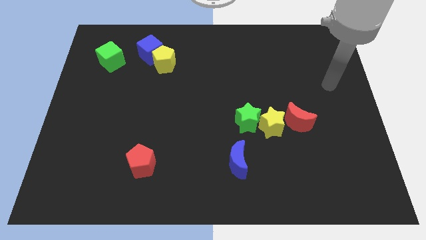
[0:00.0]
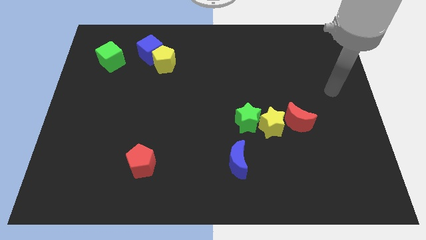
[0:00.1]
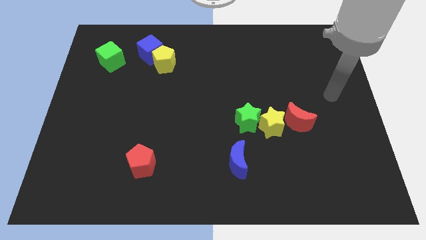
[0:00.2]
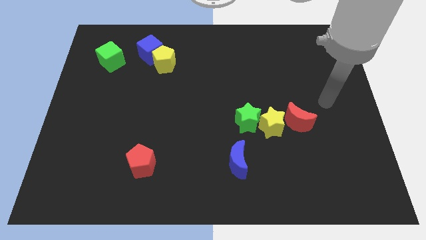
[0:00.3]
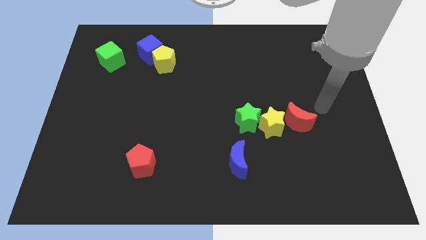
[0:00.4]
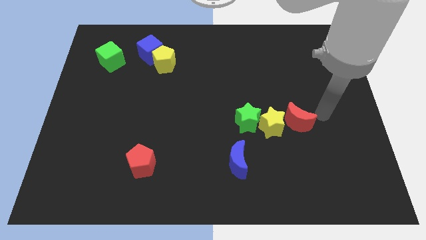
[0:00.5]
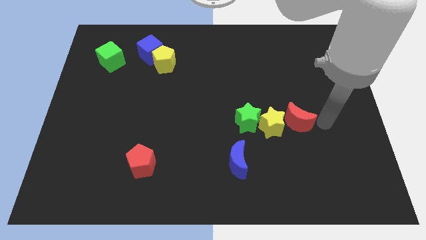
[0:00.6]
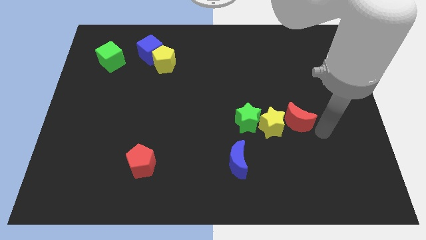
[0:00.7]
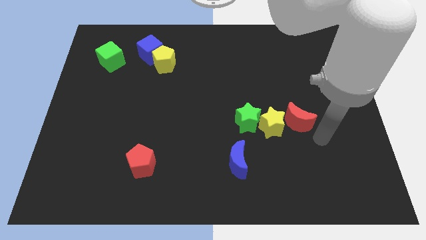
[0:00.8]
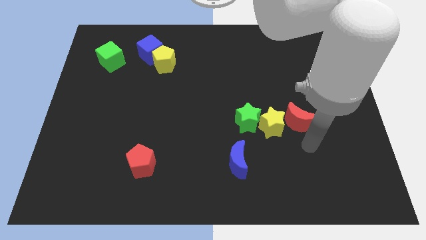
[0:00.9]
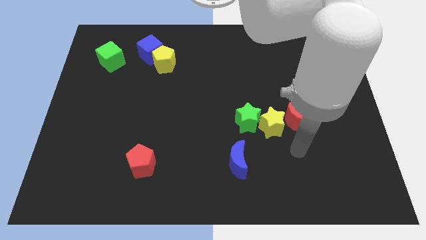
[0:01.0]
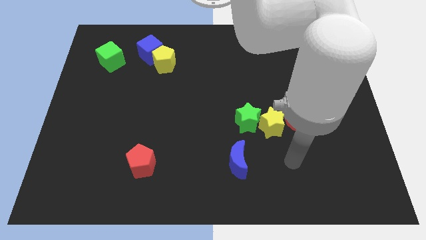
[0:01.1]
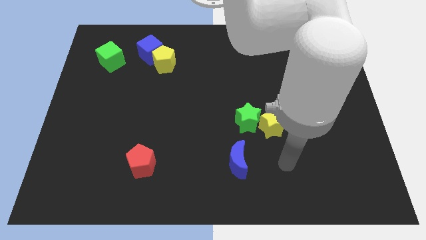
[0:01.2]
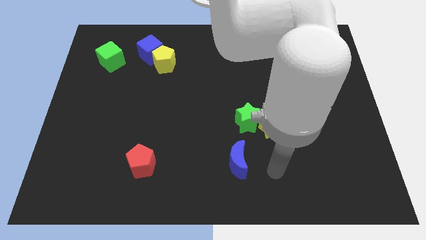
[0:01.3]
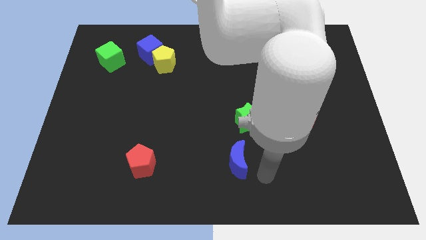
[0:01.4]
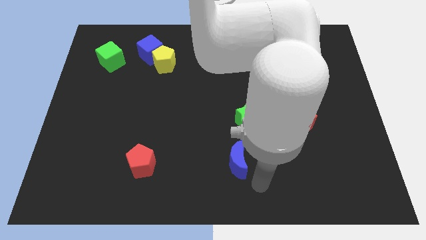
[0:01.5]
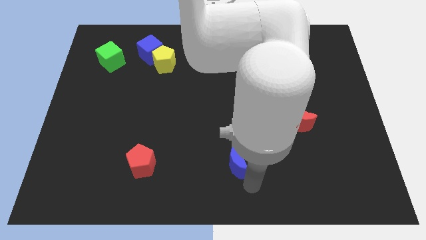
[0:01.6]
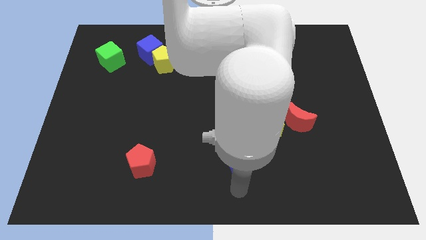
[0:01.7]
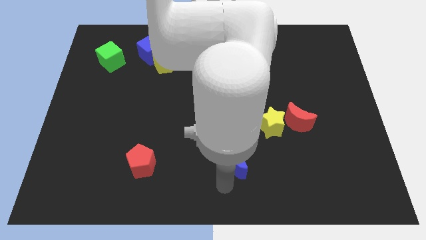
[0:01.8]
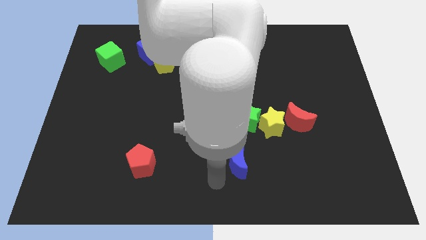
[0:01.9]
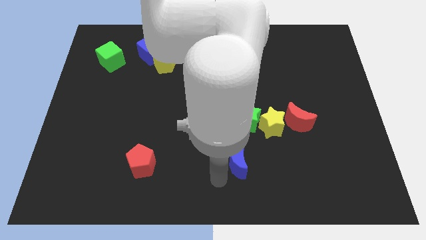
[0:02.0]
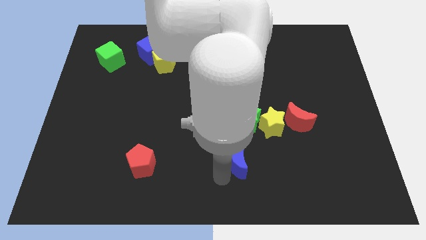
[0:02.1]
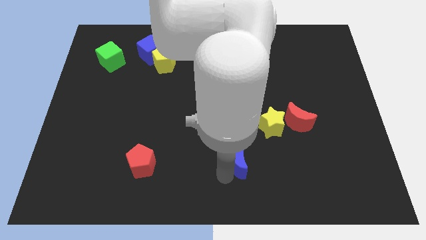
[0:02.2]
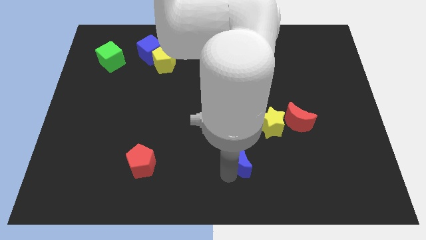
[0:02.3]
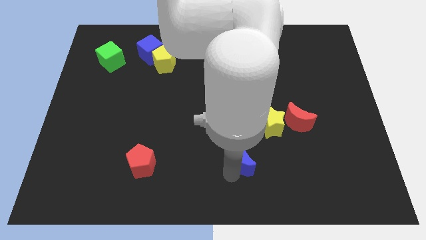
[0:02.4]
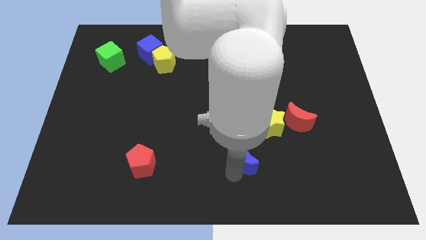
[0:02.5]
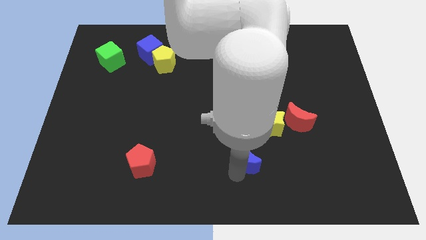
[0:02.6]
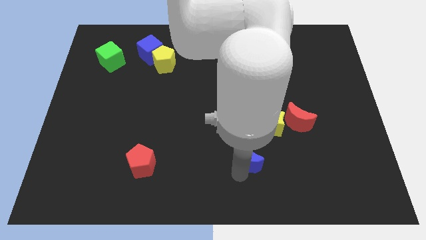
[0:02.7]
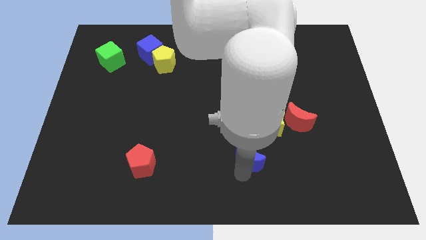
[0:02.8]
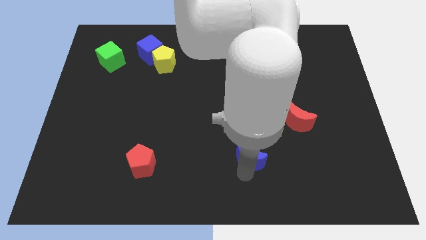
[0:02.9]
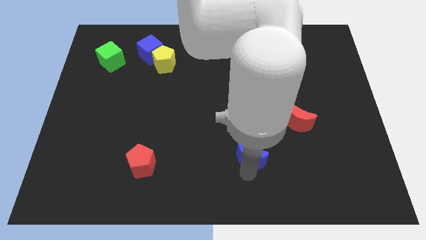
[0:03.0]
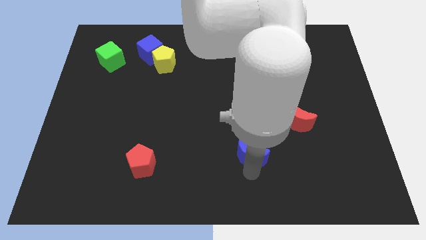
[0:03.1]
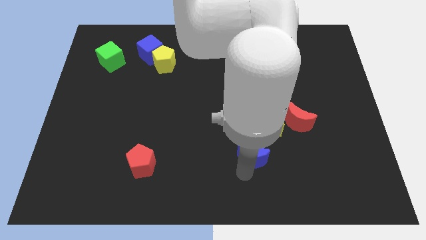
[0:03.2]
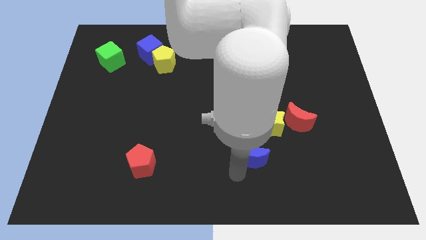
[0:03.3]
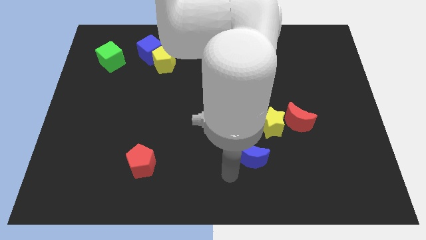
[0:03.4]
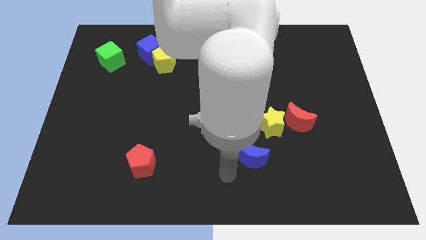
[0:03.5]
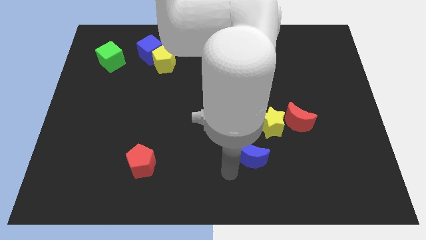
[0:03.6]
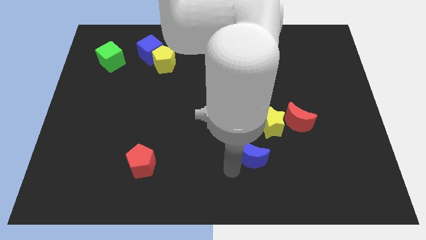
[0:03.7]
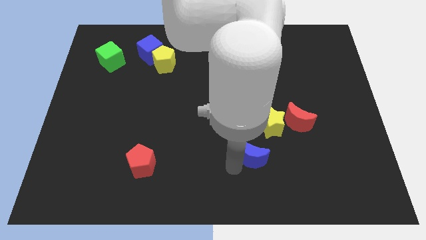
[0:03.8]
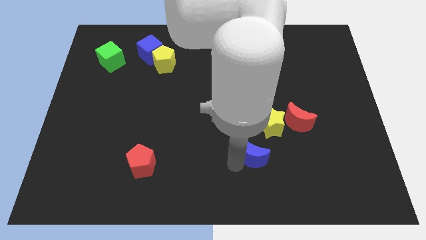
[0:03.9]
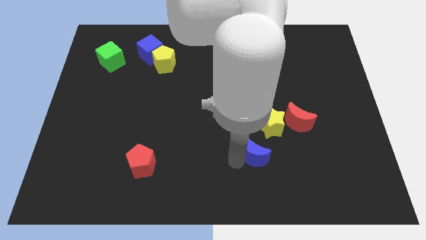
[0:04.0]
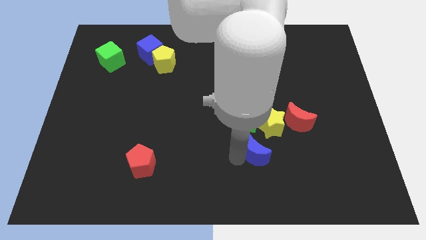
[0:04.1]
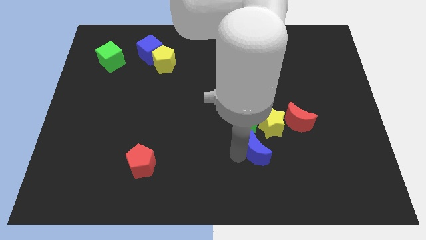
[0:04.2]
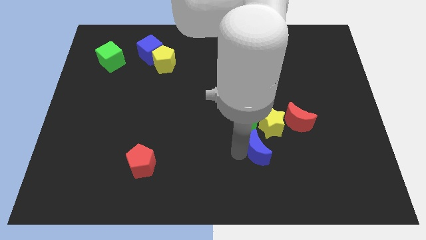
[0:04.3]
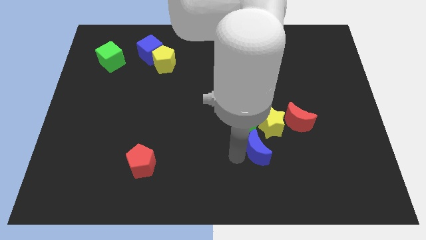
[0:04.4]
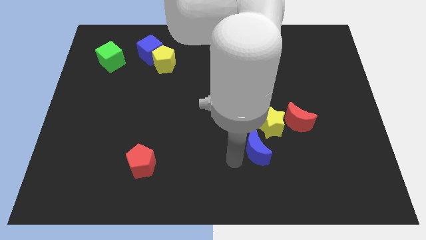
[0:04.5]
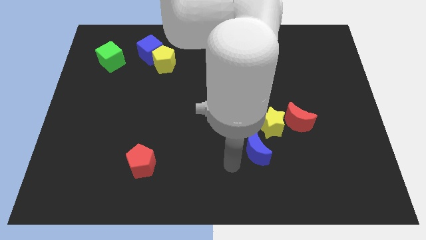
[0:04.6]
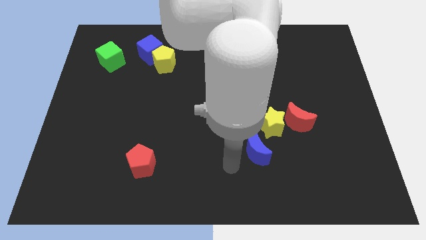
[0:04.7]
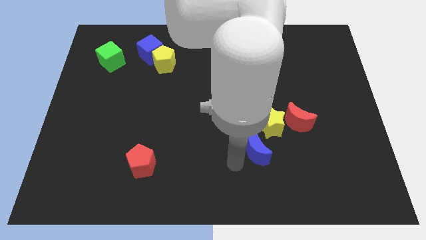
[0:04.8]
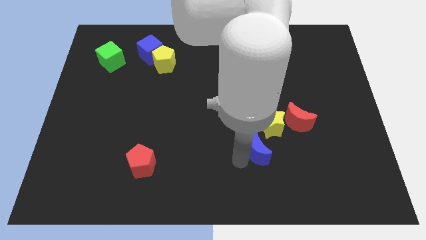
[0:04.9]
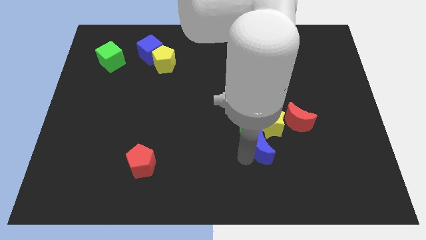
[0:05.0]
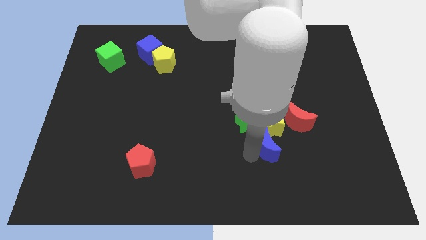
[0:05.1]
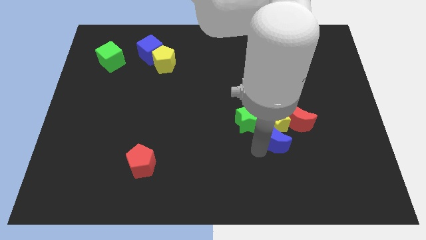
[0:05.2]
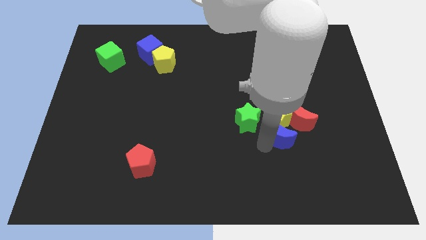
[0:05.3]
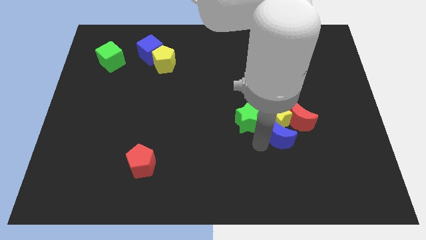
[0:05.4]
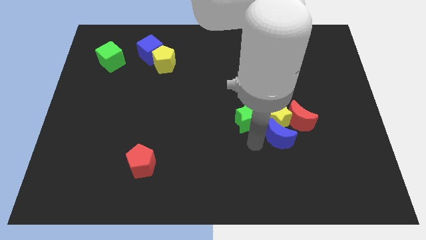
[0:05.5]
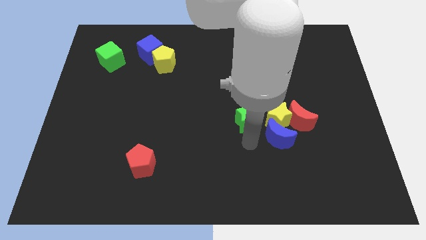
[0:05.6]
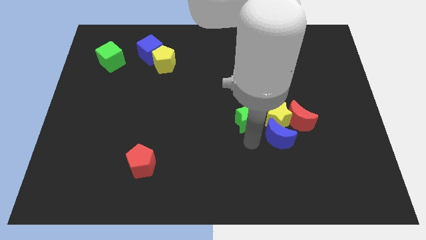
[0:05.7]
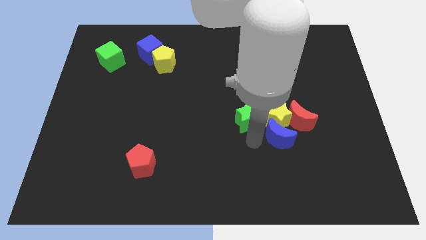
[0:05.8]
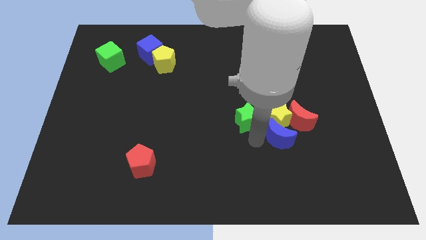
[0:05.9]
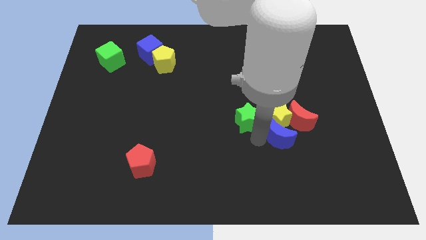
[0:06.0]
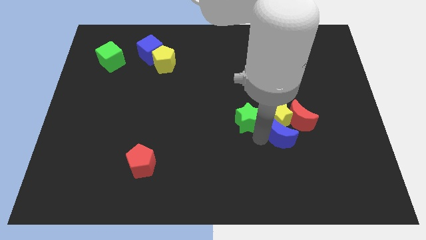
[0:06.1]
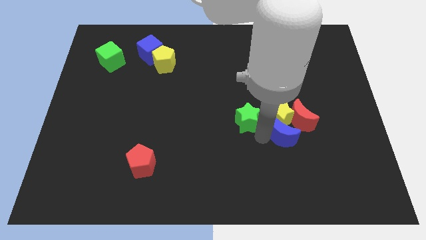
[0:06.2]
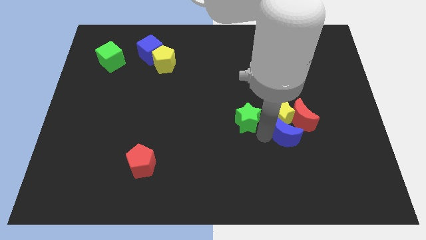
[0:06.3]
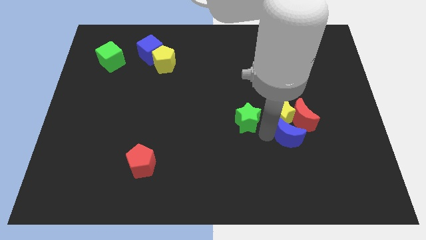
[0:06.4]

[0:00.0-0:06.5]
slide the blue moon close to the red moon
